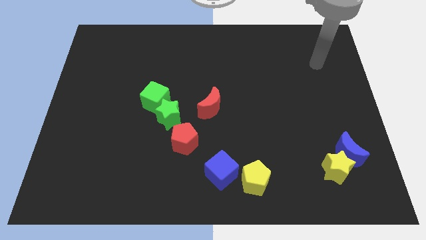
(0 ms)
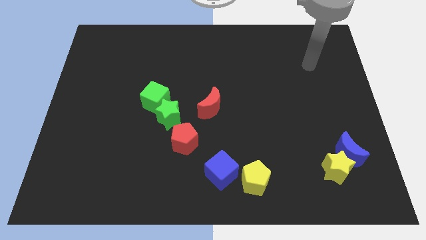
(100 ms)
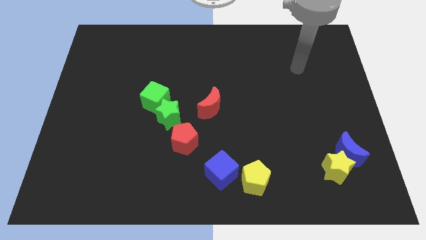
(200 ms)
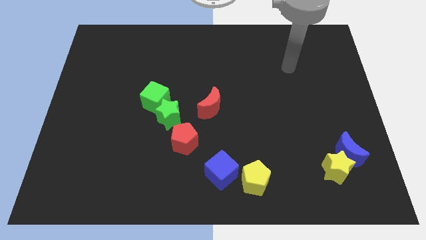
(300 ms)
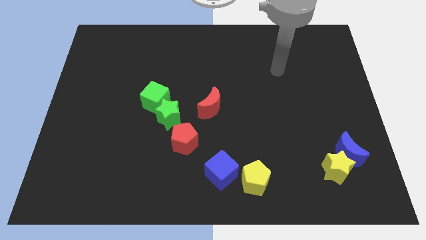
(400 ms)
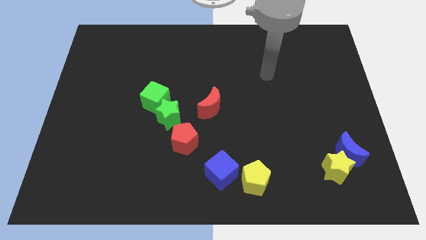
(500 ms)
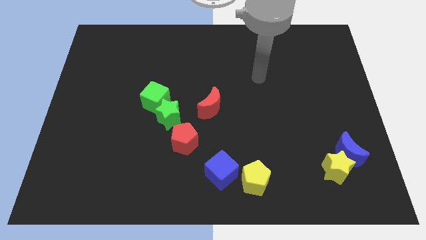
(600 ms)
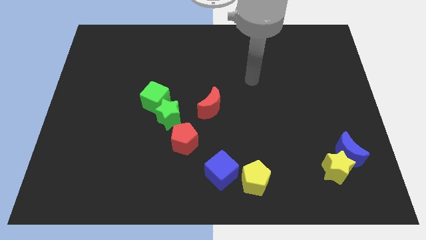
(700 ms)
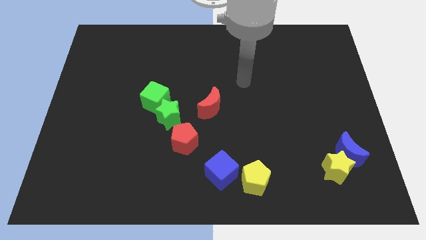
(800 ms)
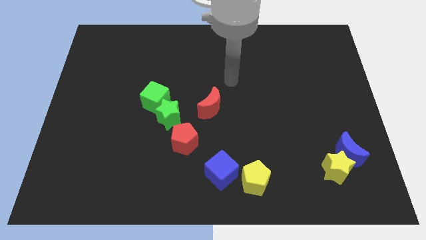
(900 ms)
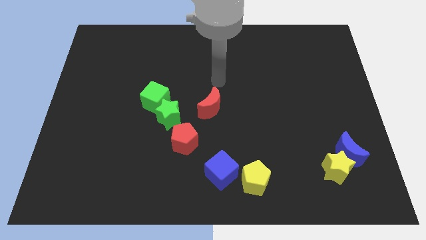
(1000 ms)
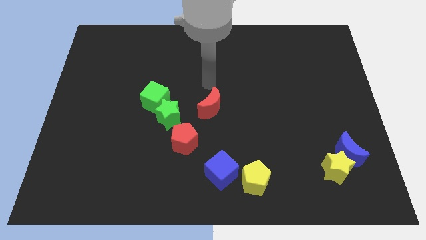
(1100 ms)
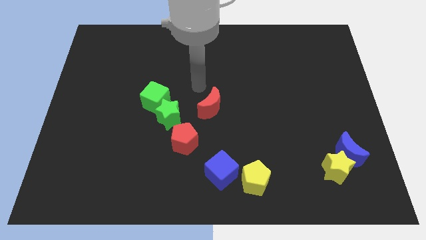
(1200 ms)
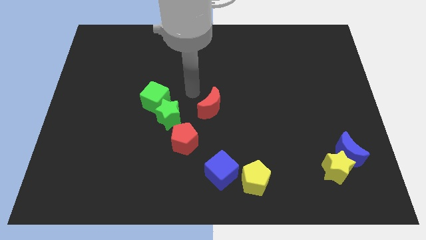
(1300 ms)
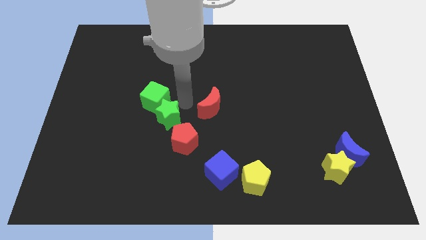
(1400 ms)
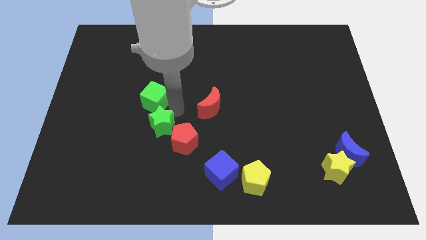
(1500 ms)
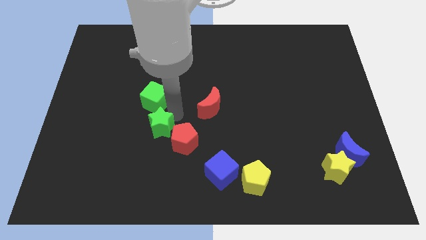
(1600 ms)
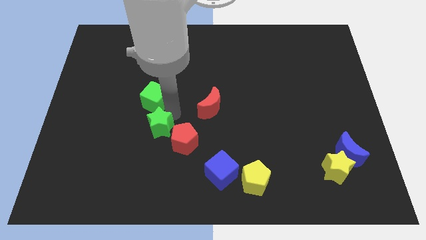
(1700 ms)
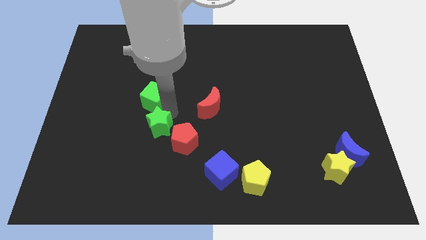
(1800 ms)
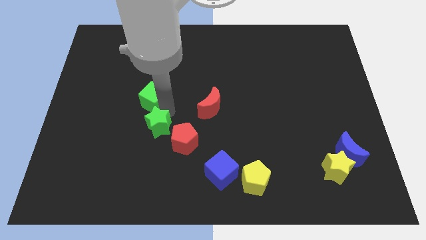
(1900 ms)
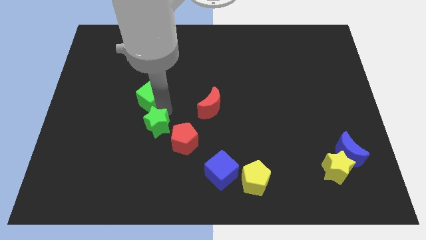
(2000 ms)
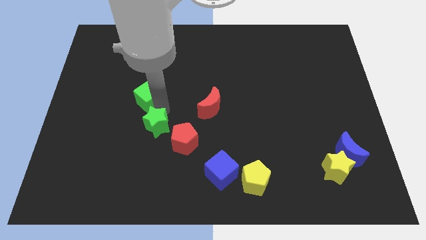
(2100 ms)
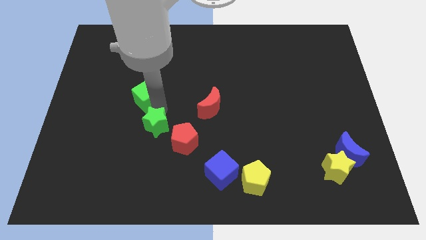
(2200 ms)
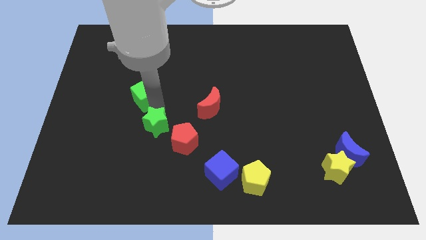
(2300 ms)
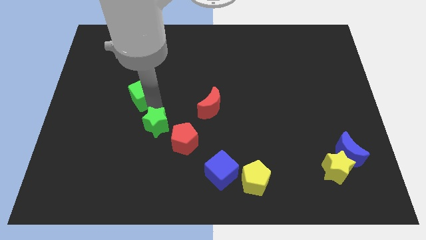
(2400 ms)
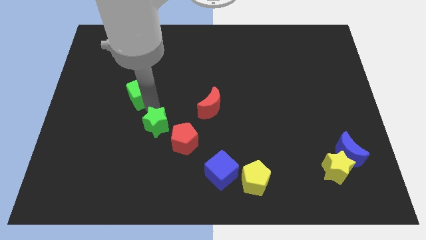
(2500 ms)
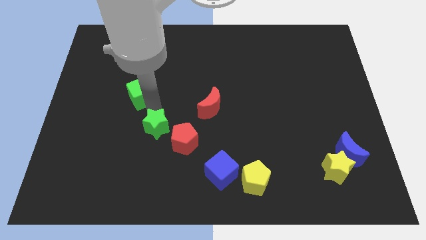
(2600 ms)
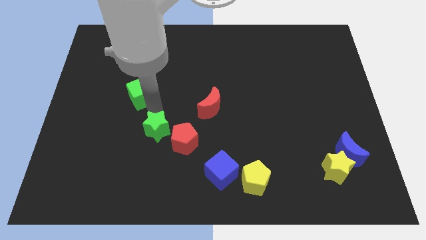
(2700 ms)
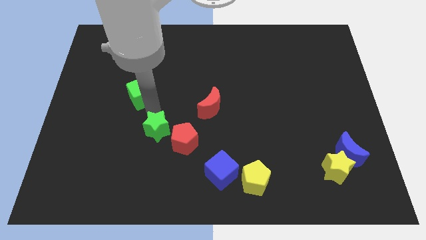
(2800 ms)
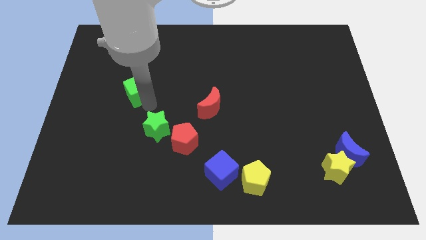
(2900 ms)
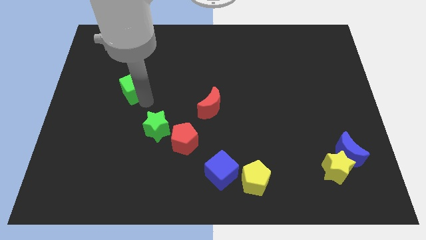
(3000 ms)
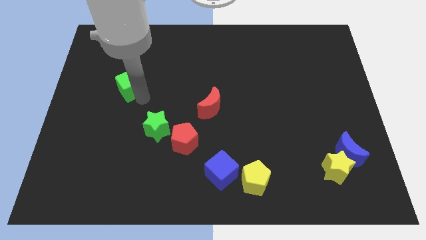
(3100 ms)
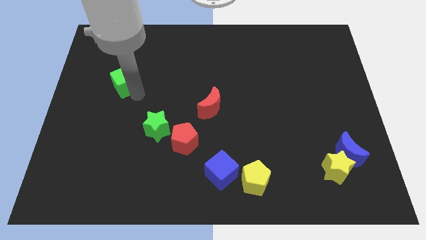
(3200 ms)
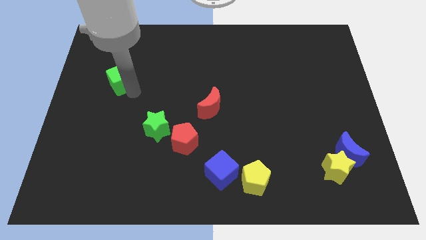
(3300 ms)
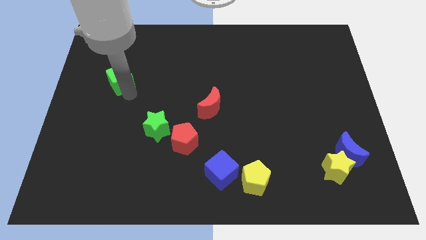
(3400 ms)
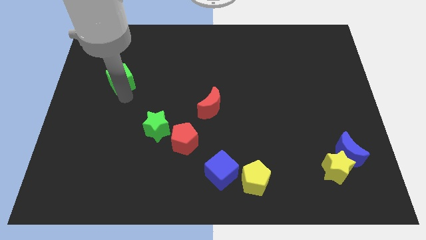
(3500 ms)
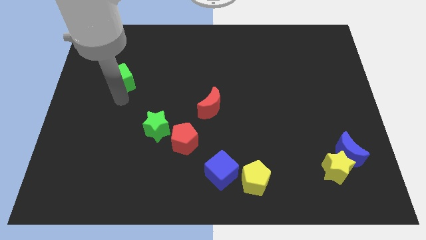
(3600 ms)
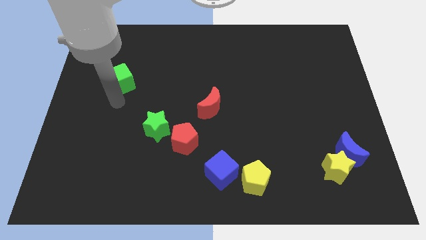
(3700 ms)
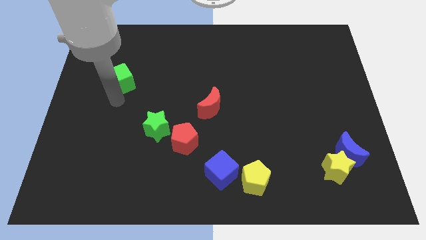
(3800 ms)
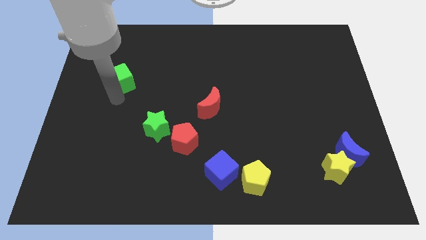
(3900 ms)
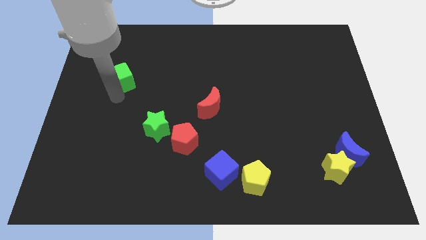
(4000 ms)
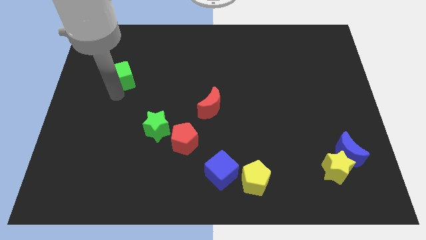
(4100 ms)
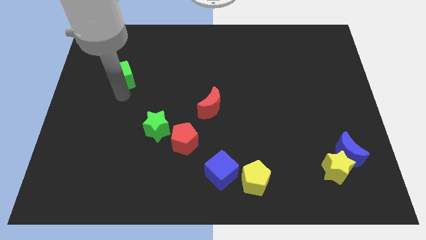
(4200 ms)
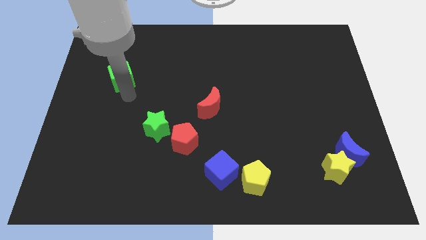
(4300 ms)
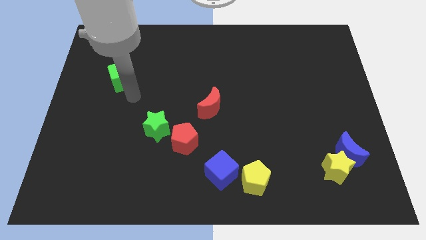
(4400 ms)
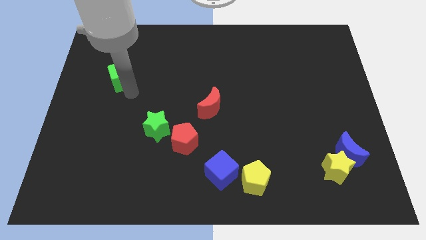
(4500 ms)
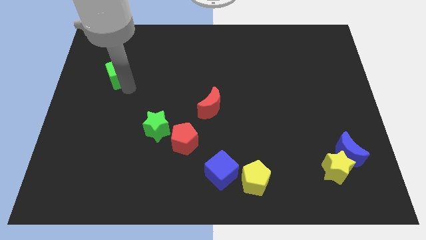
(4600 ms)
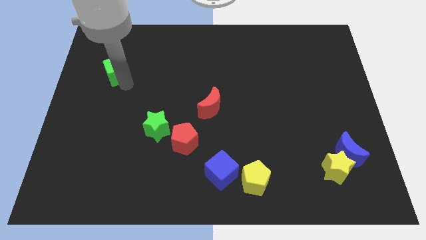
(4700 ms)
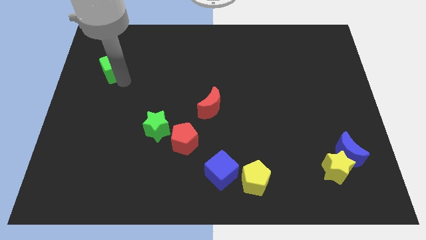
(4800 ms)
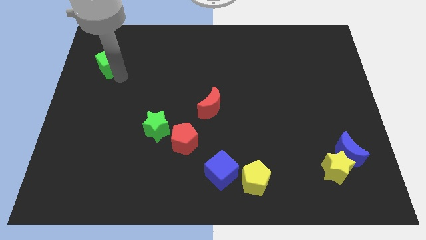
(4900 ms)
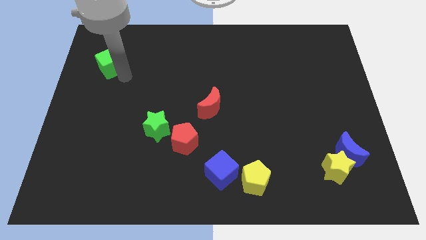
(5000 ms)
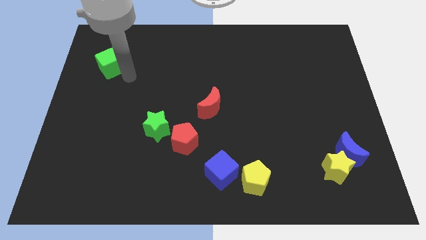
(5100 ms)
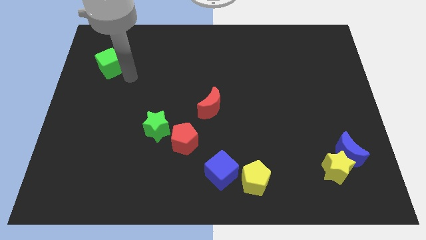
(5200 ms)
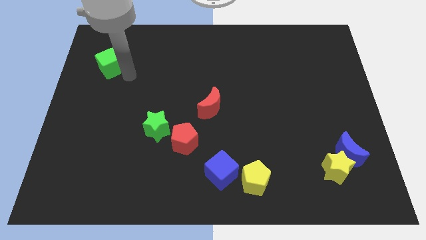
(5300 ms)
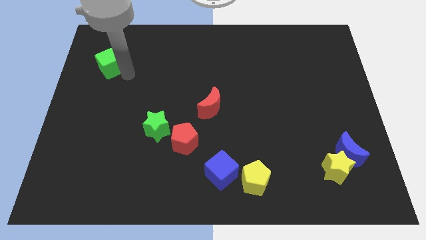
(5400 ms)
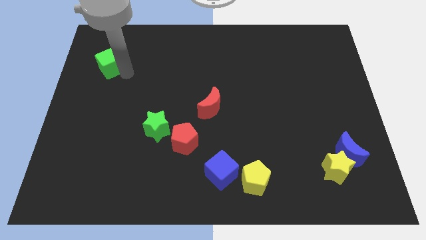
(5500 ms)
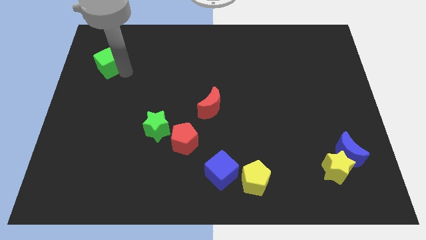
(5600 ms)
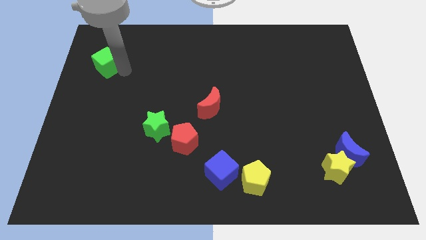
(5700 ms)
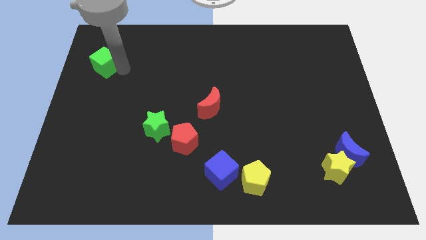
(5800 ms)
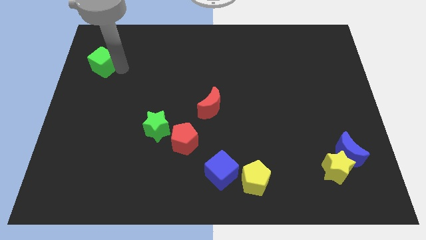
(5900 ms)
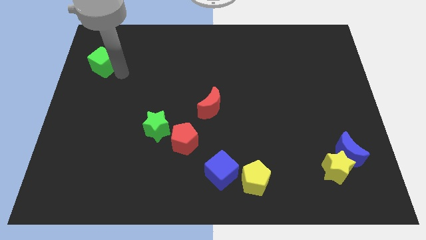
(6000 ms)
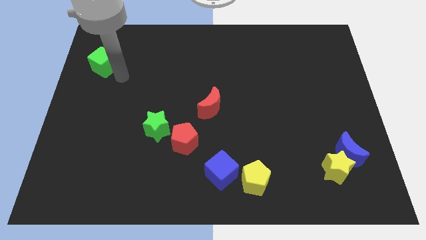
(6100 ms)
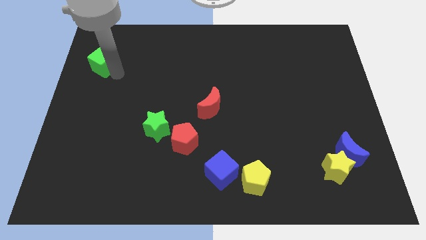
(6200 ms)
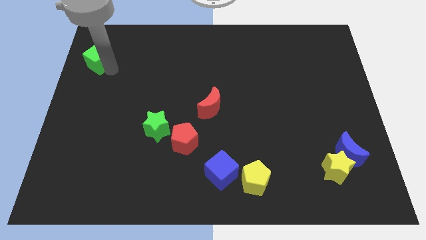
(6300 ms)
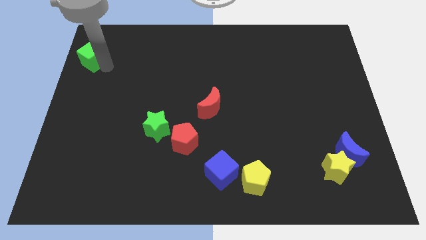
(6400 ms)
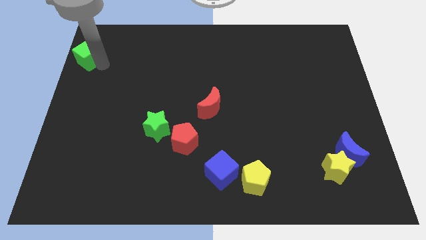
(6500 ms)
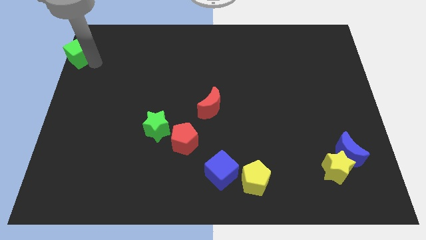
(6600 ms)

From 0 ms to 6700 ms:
push the green cube to the top left of the board
